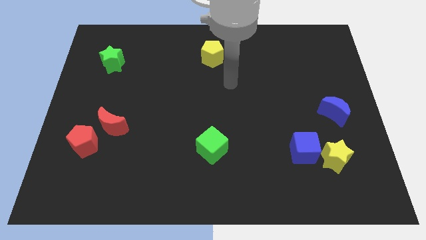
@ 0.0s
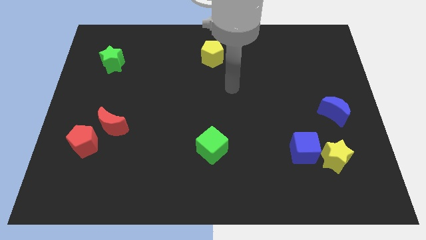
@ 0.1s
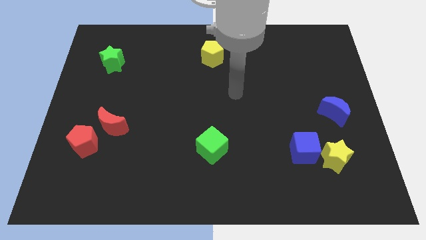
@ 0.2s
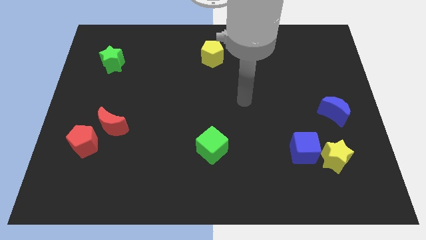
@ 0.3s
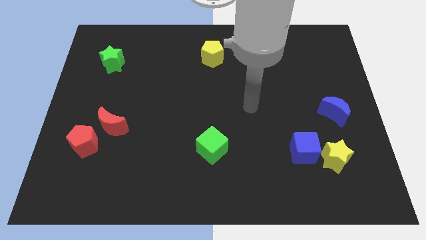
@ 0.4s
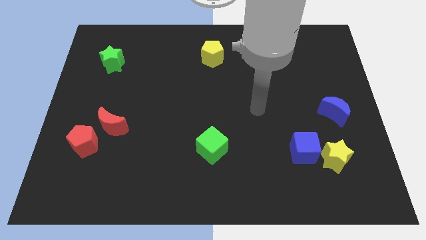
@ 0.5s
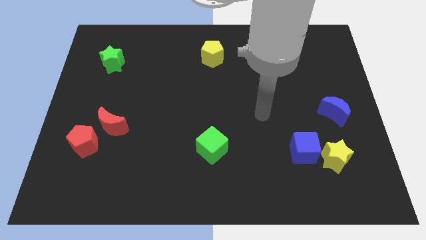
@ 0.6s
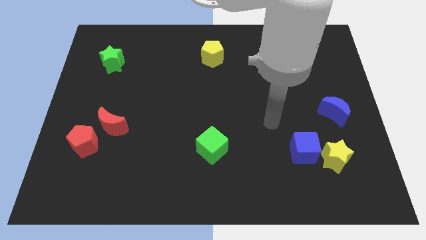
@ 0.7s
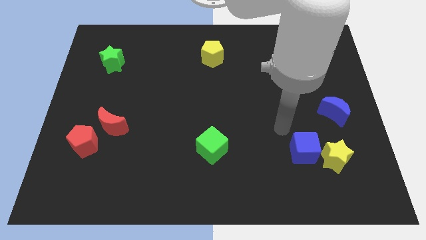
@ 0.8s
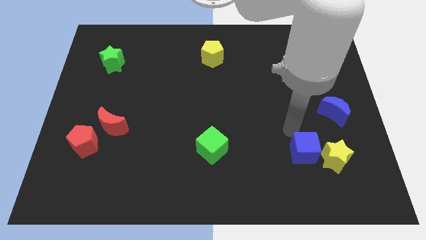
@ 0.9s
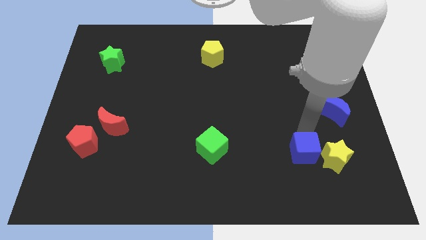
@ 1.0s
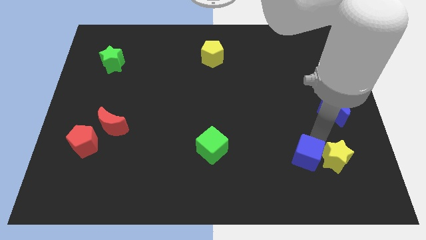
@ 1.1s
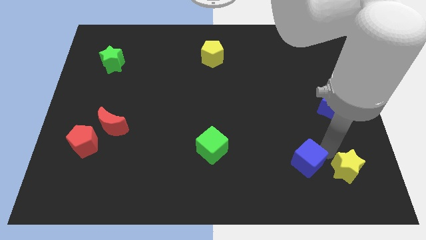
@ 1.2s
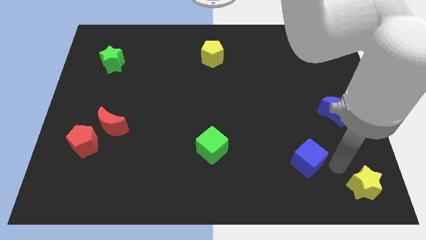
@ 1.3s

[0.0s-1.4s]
move the blue cube away from the yellow star

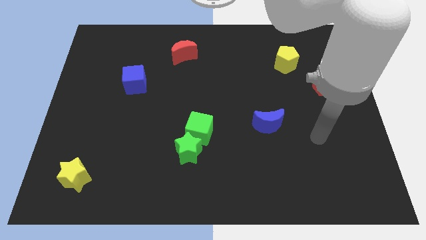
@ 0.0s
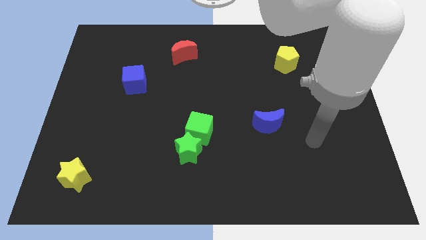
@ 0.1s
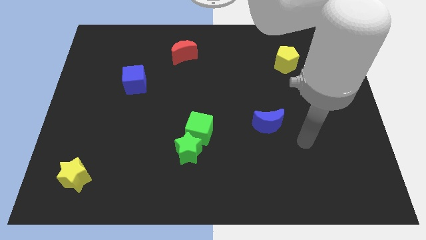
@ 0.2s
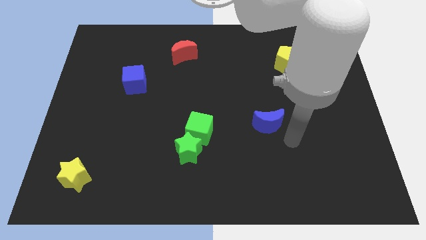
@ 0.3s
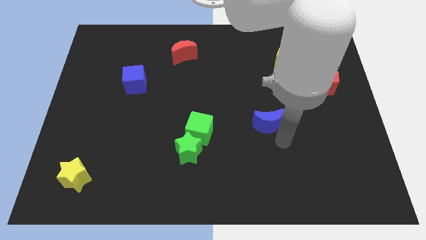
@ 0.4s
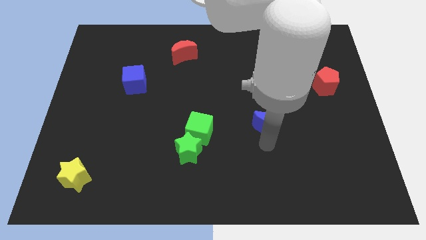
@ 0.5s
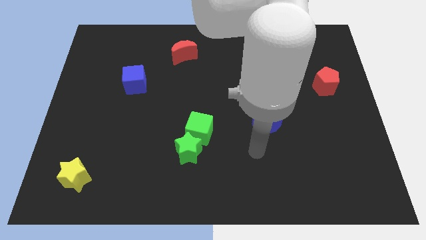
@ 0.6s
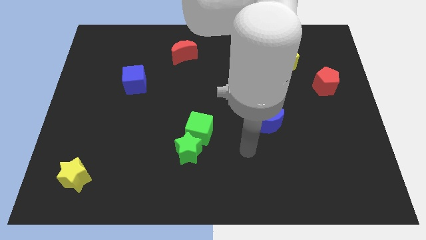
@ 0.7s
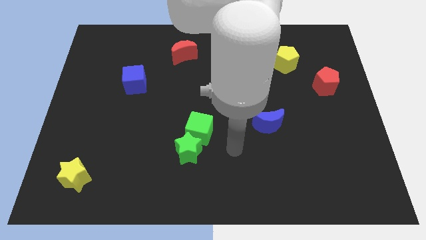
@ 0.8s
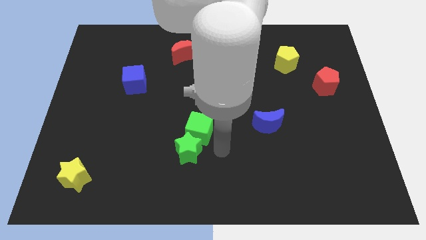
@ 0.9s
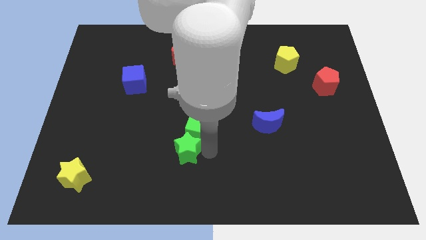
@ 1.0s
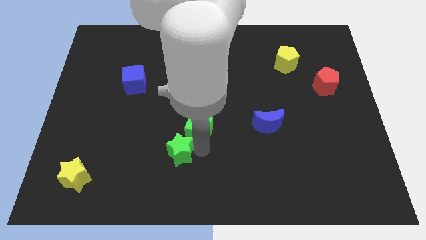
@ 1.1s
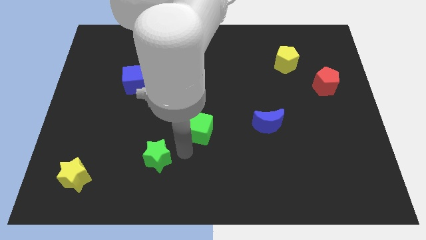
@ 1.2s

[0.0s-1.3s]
pull the green cube apart from the green star

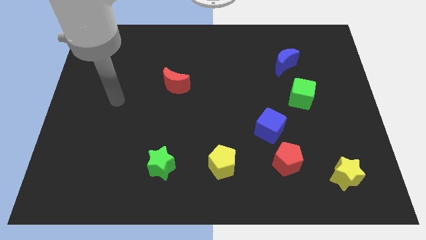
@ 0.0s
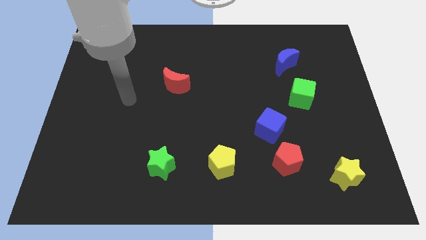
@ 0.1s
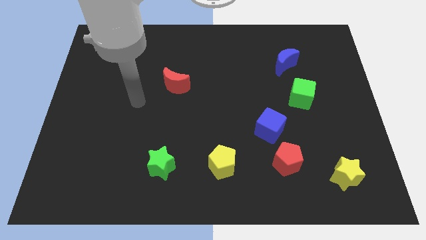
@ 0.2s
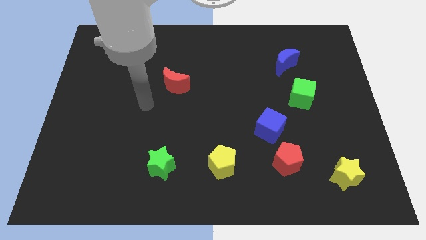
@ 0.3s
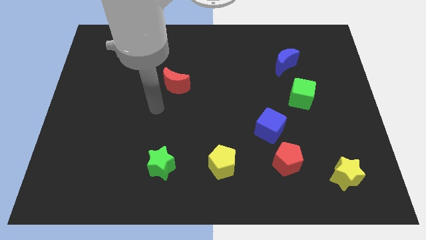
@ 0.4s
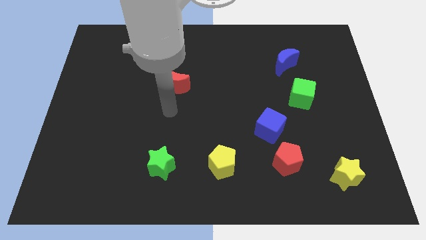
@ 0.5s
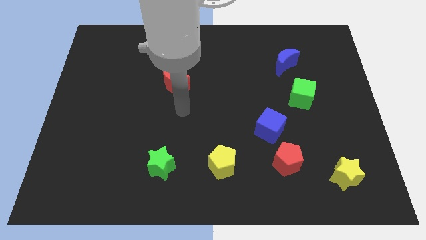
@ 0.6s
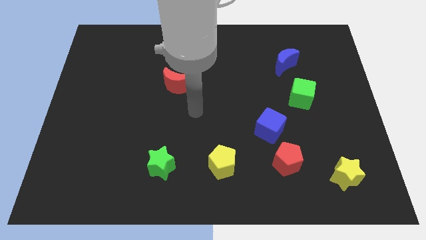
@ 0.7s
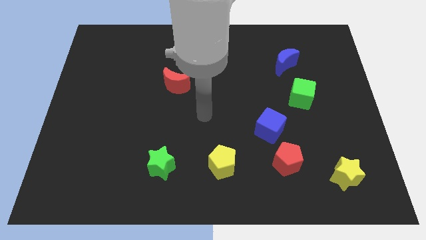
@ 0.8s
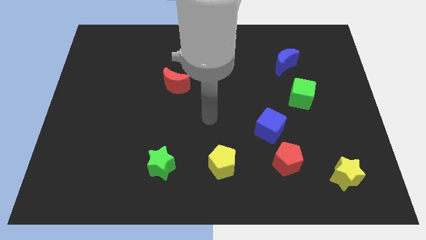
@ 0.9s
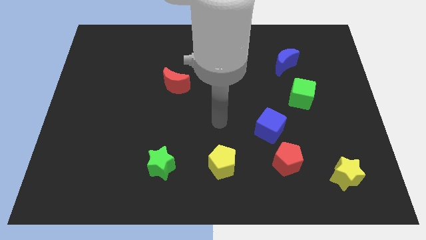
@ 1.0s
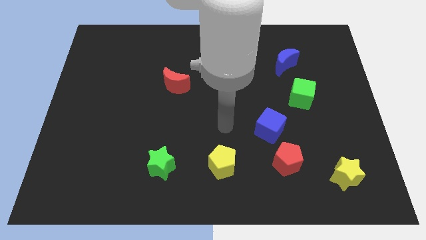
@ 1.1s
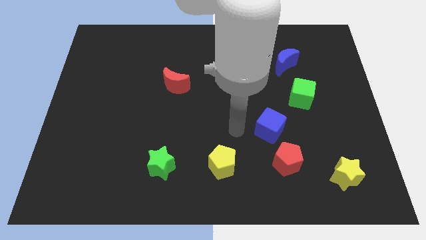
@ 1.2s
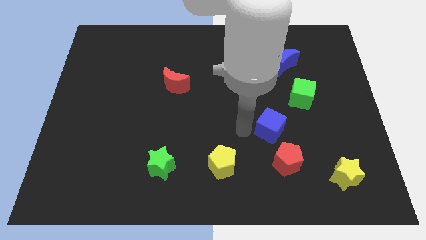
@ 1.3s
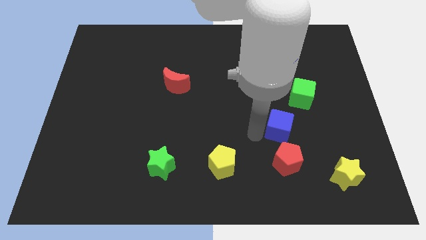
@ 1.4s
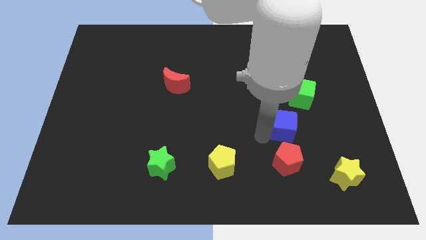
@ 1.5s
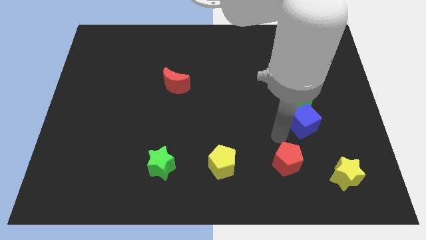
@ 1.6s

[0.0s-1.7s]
separate the red pentagon from the blue cube

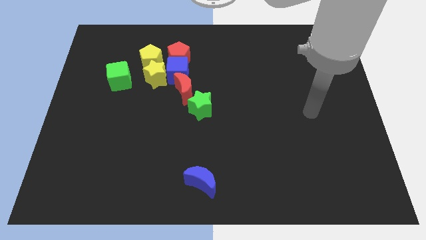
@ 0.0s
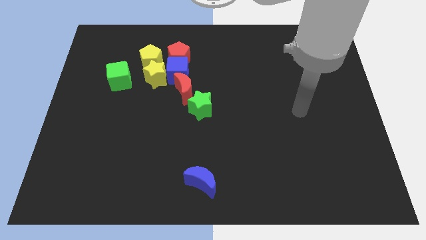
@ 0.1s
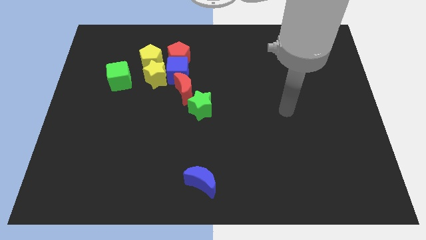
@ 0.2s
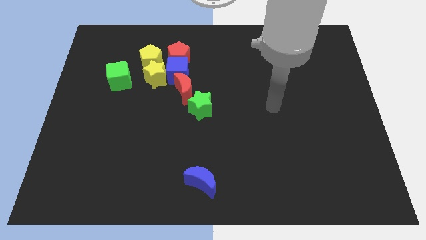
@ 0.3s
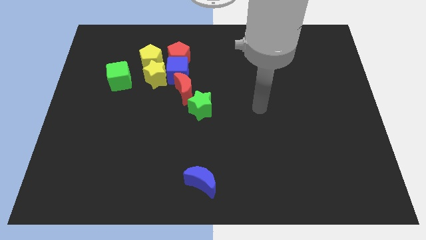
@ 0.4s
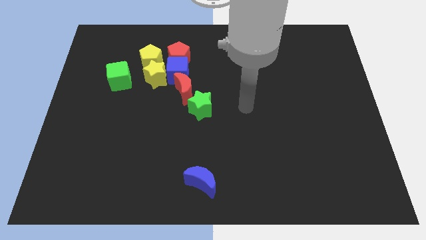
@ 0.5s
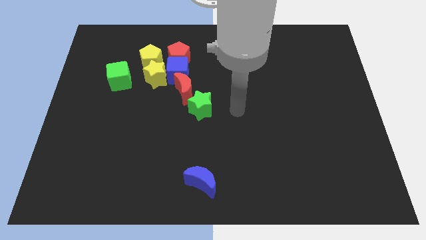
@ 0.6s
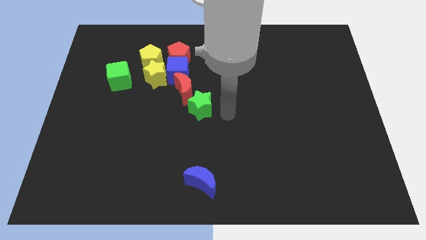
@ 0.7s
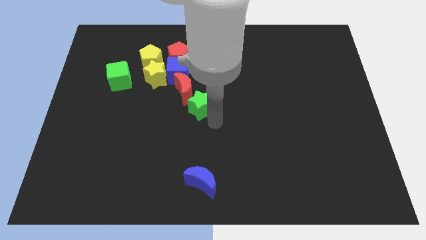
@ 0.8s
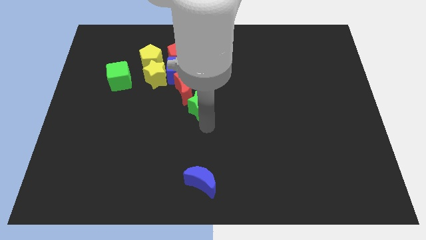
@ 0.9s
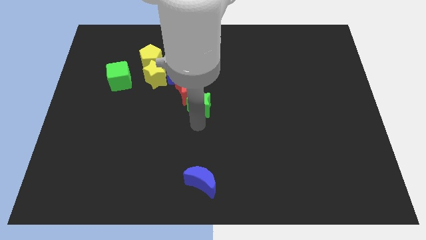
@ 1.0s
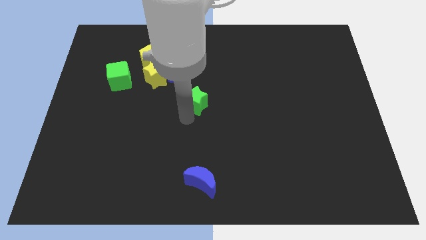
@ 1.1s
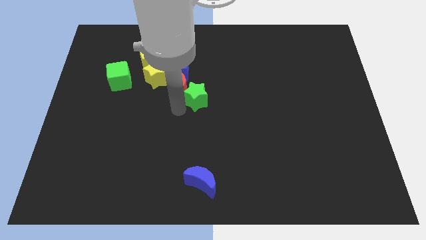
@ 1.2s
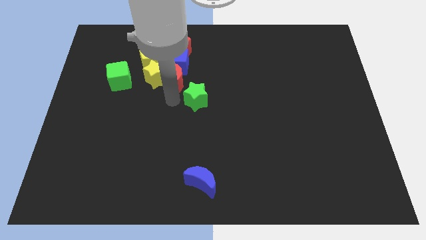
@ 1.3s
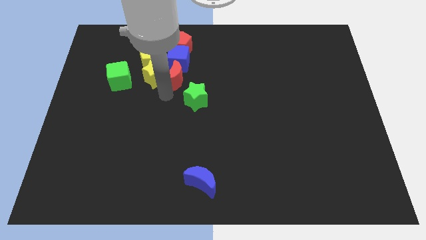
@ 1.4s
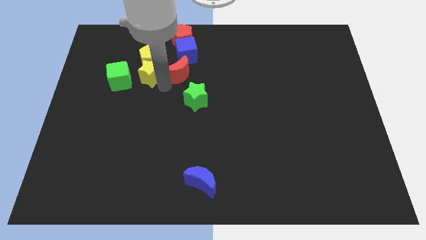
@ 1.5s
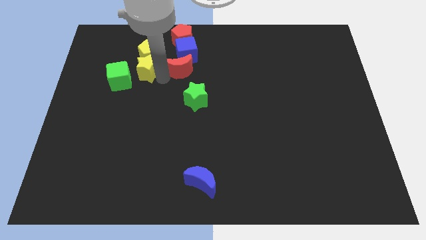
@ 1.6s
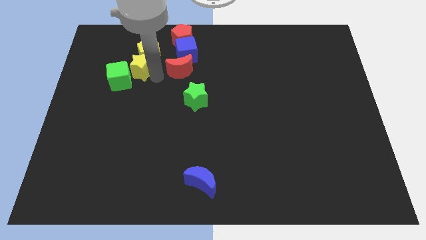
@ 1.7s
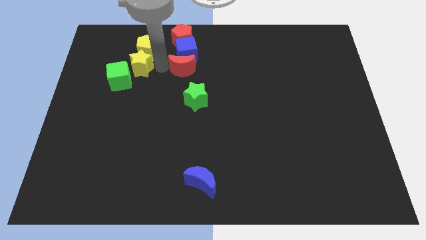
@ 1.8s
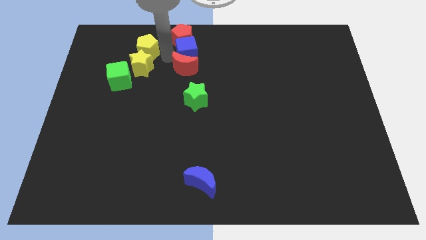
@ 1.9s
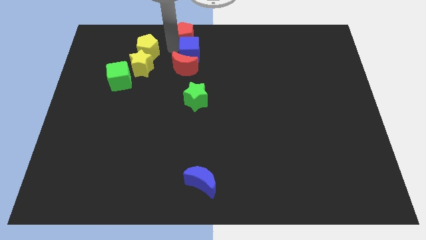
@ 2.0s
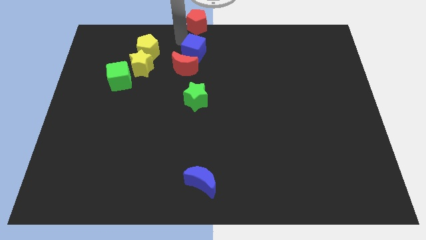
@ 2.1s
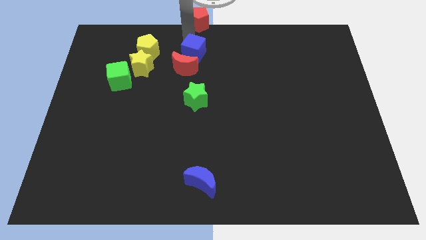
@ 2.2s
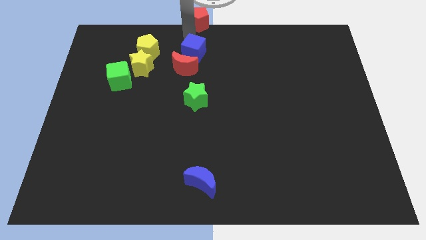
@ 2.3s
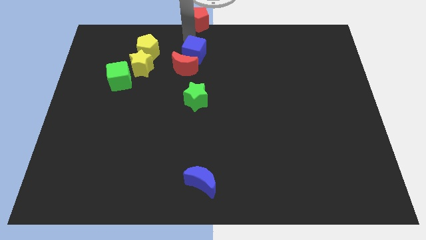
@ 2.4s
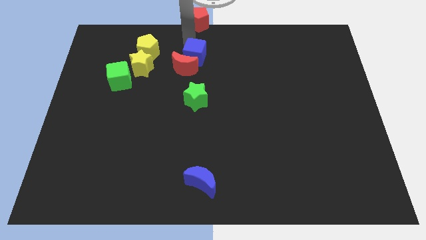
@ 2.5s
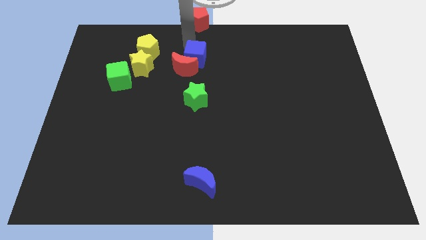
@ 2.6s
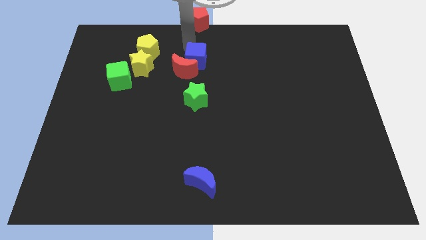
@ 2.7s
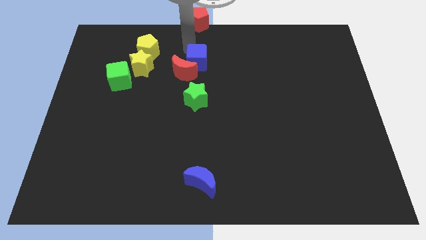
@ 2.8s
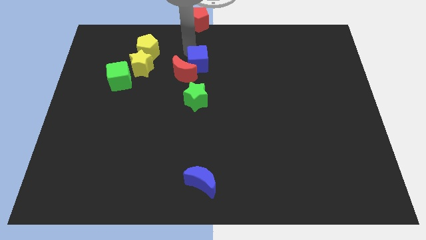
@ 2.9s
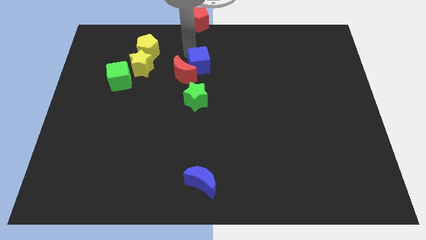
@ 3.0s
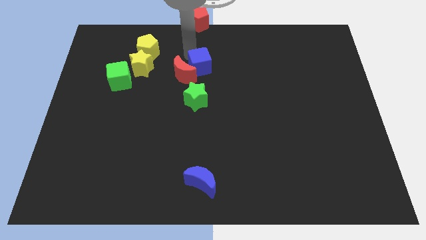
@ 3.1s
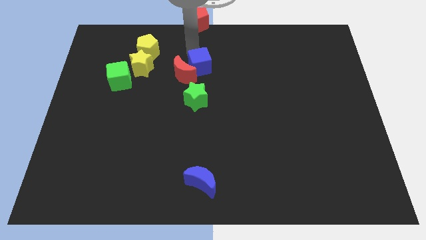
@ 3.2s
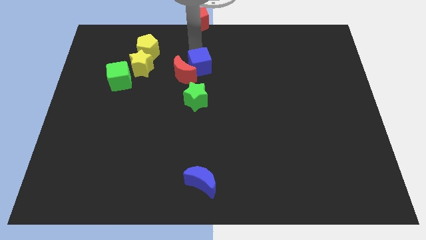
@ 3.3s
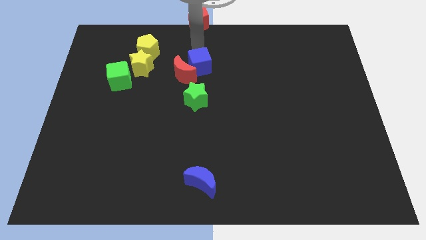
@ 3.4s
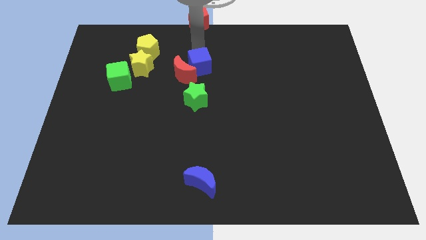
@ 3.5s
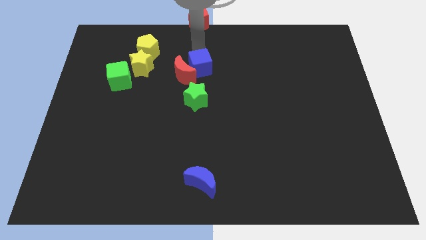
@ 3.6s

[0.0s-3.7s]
pull the blue cube apart from the group of blocks

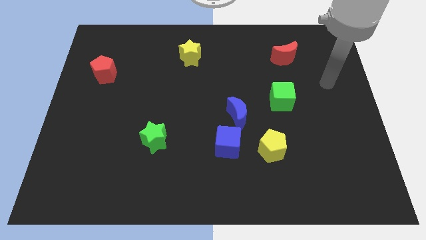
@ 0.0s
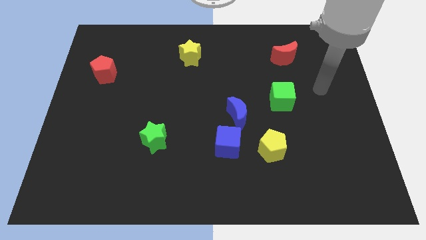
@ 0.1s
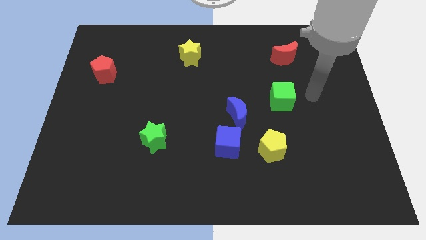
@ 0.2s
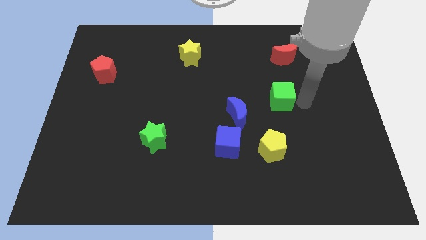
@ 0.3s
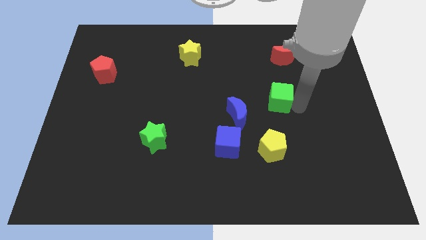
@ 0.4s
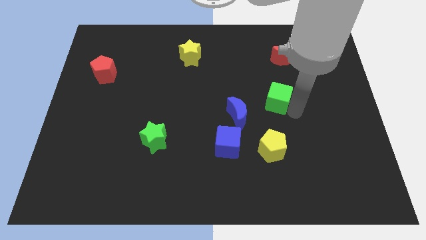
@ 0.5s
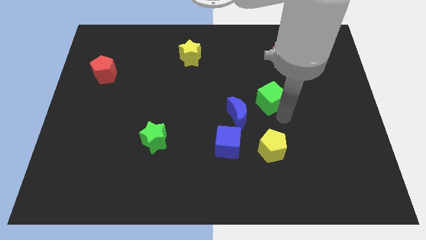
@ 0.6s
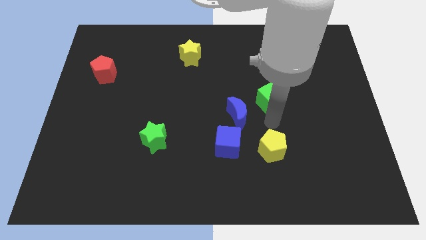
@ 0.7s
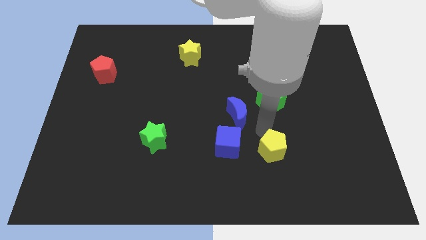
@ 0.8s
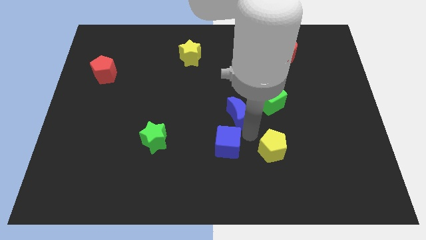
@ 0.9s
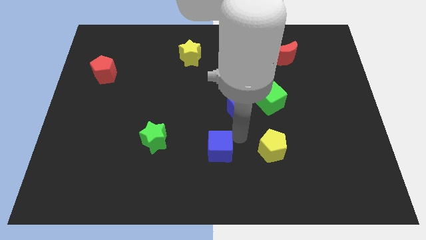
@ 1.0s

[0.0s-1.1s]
pull the blue moon apart from the blue cube

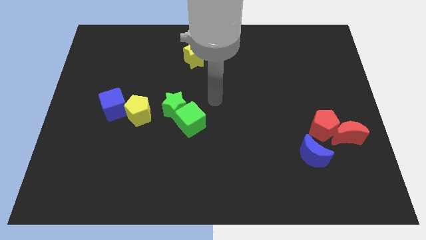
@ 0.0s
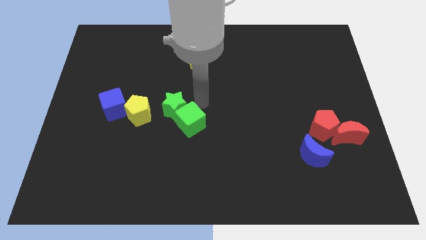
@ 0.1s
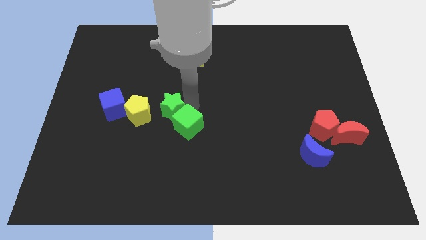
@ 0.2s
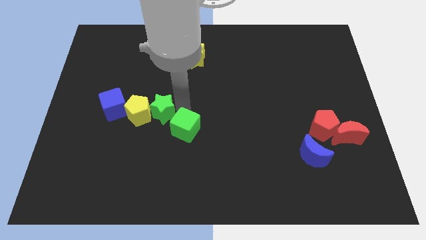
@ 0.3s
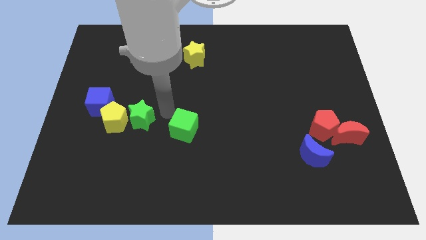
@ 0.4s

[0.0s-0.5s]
move the green cube away from the green star
